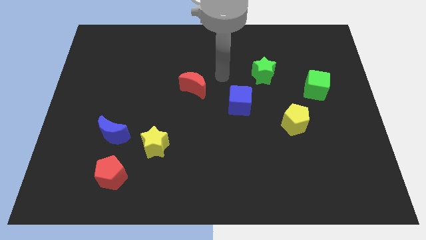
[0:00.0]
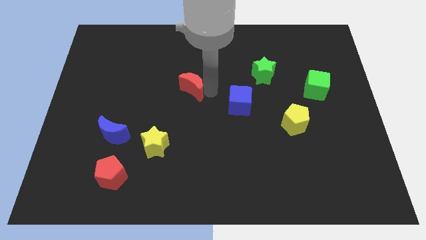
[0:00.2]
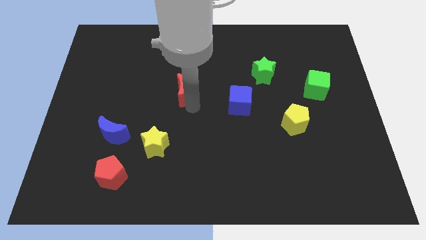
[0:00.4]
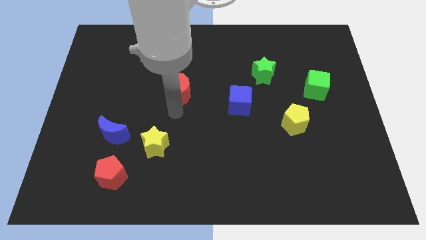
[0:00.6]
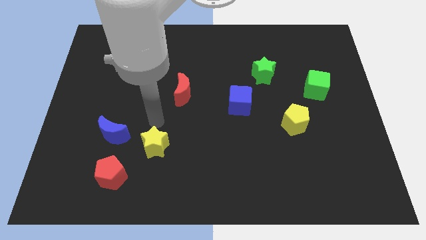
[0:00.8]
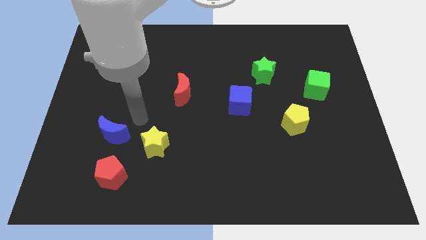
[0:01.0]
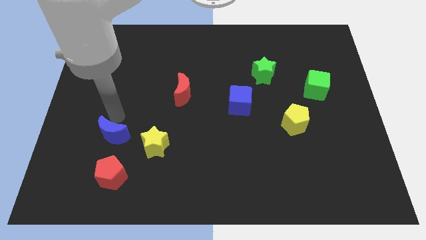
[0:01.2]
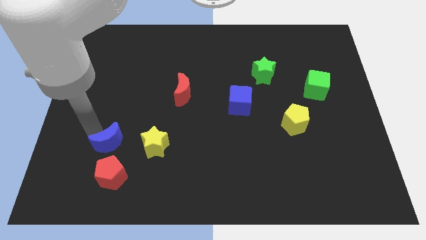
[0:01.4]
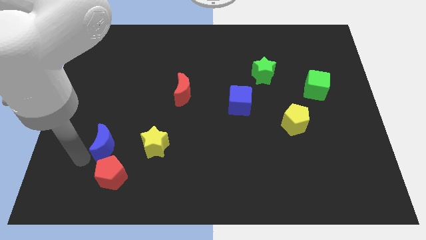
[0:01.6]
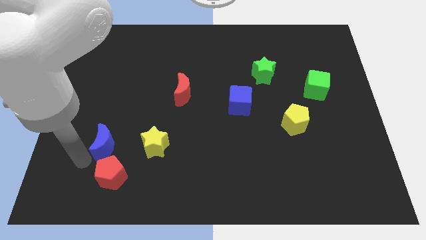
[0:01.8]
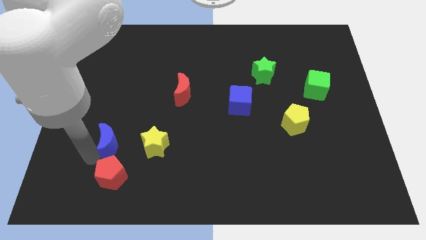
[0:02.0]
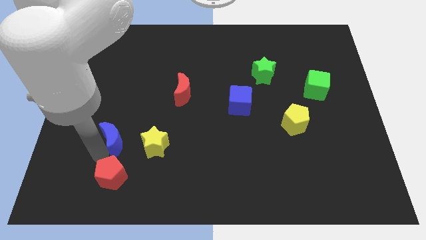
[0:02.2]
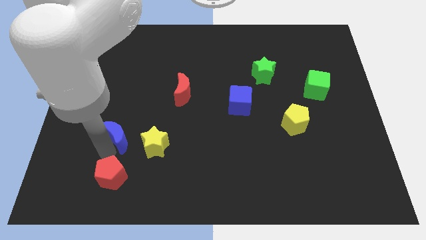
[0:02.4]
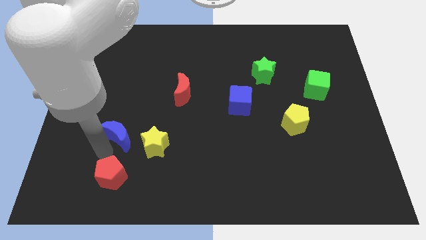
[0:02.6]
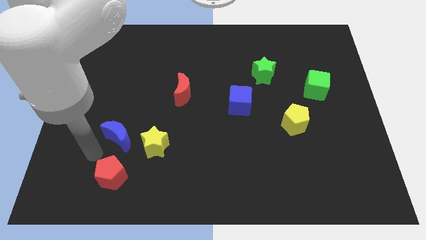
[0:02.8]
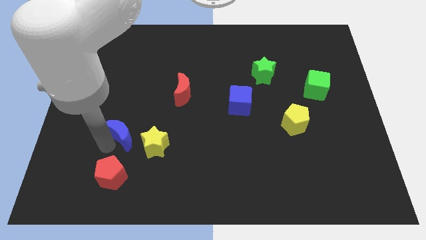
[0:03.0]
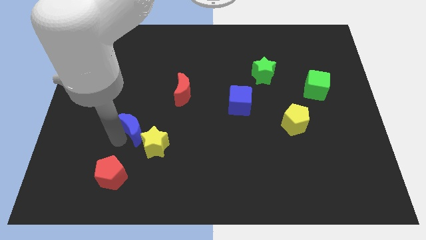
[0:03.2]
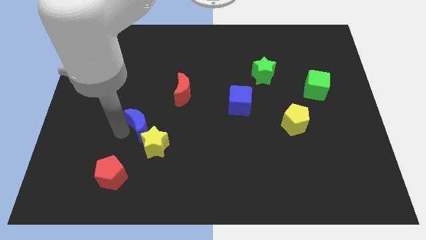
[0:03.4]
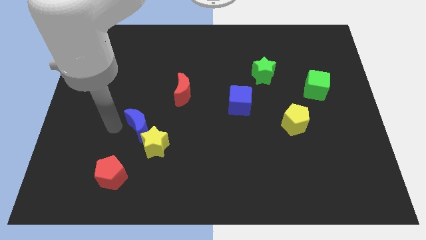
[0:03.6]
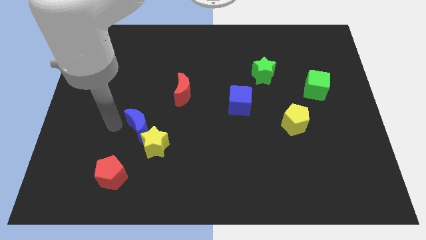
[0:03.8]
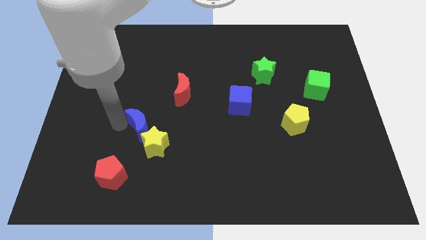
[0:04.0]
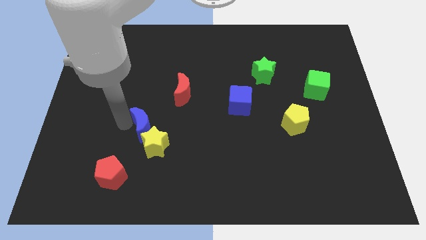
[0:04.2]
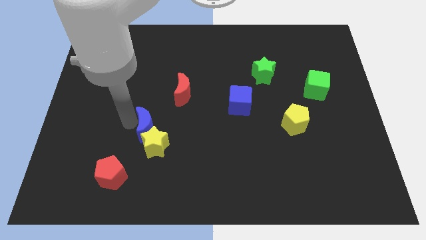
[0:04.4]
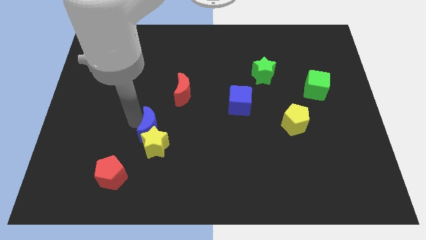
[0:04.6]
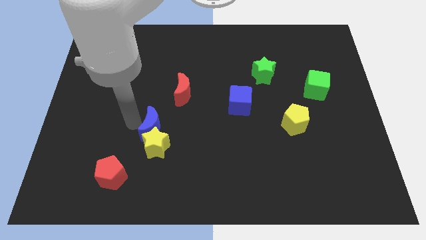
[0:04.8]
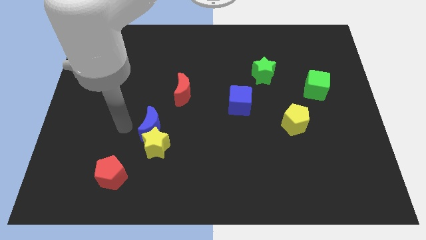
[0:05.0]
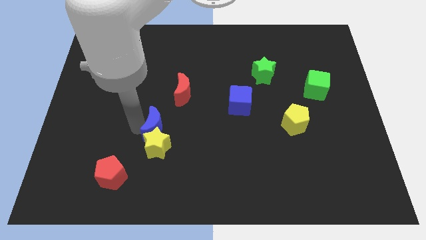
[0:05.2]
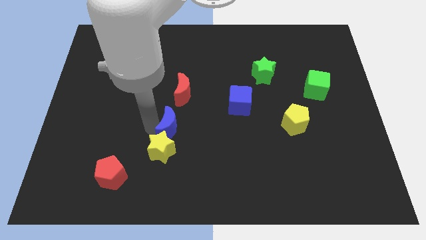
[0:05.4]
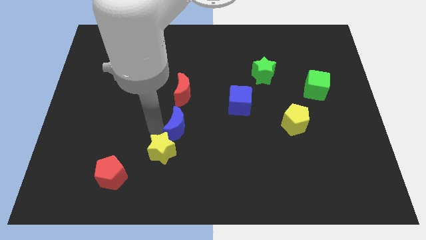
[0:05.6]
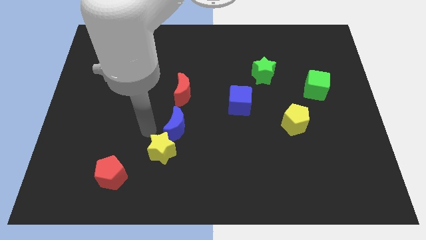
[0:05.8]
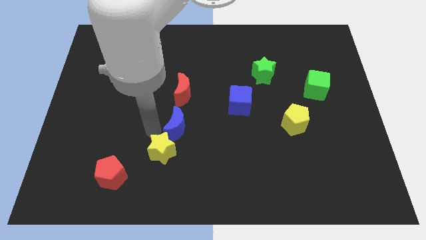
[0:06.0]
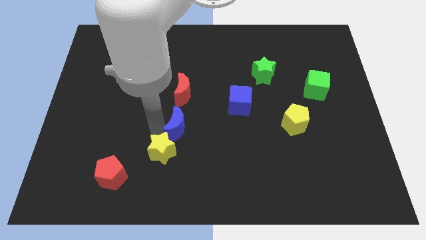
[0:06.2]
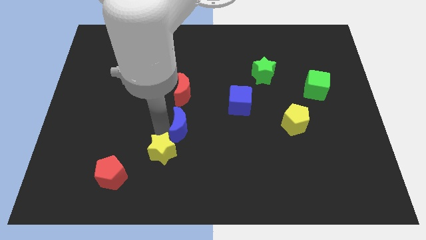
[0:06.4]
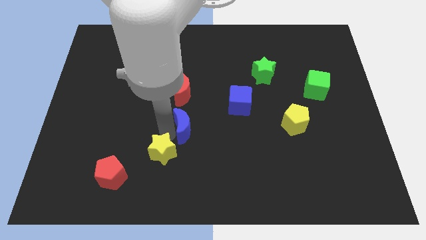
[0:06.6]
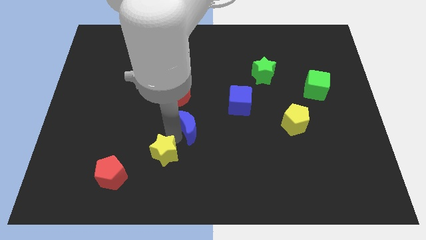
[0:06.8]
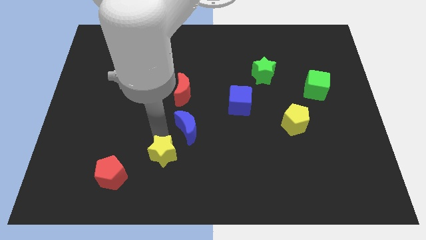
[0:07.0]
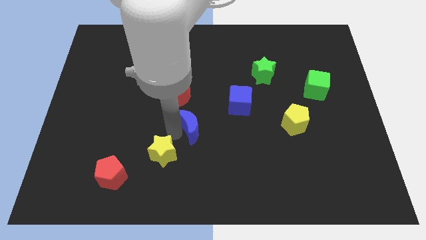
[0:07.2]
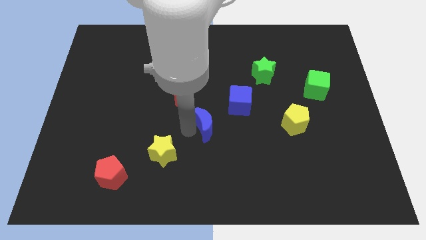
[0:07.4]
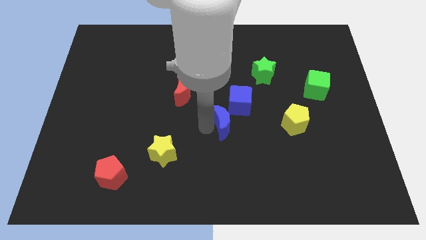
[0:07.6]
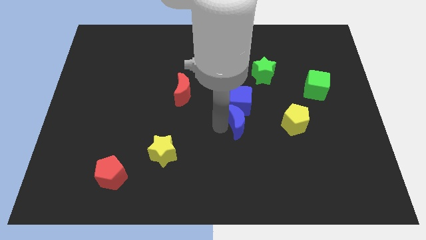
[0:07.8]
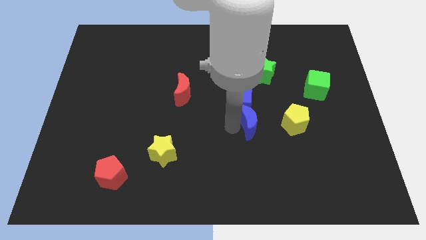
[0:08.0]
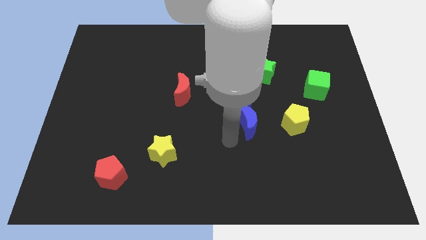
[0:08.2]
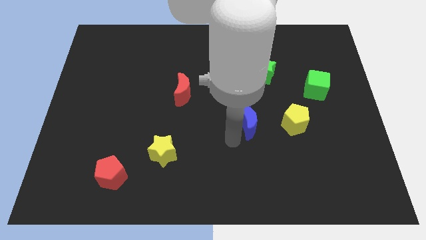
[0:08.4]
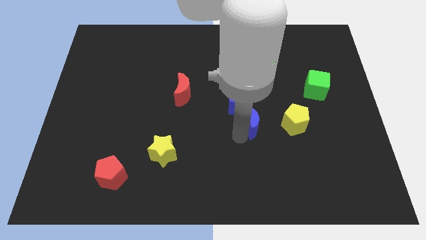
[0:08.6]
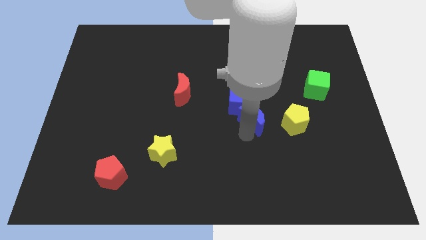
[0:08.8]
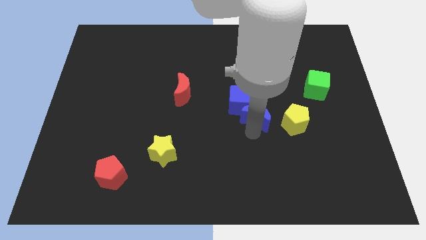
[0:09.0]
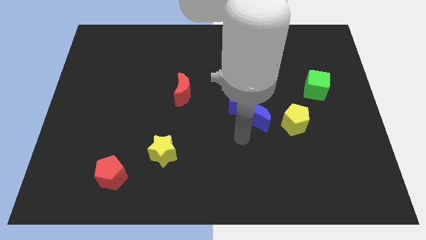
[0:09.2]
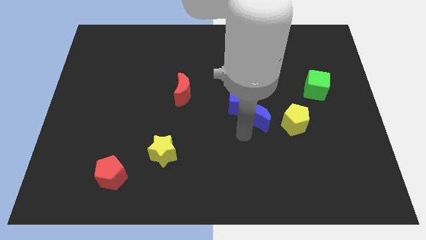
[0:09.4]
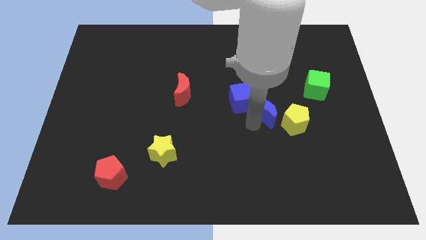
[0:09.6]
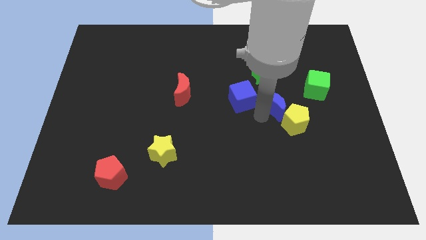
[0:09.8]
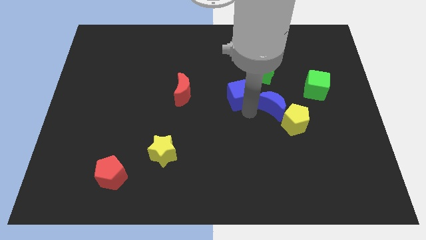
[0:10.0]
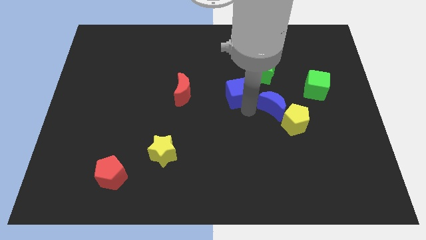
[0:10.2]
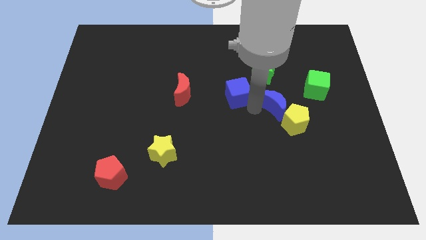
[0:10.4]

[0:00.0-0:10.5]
push the blue moon diagonally down and to the left of the green cube

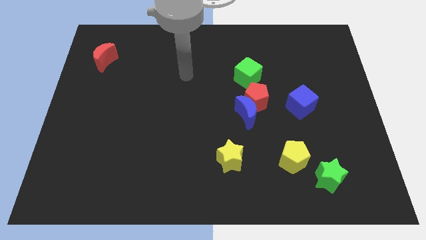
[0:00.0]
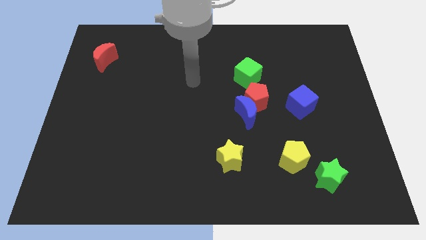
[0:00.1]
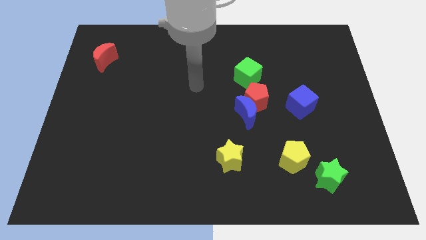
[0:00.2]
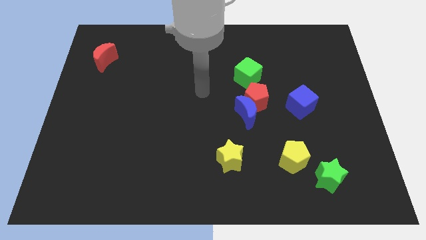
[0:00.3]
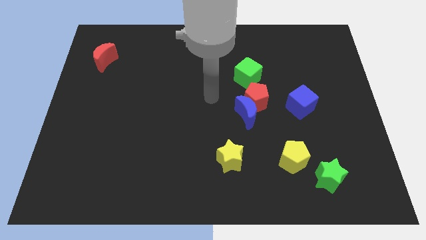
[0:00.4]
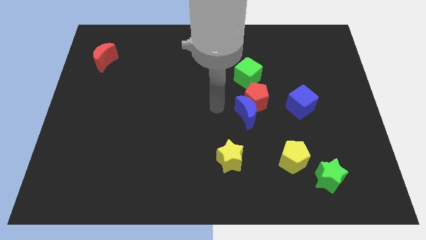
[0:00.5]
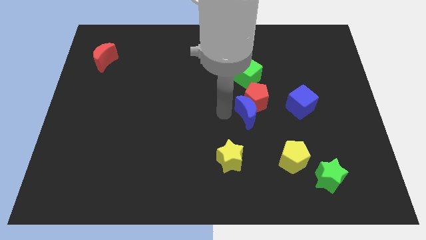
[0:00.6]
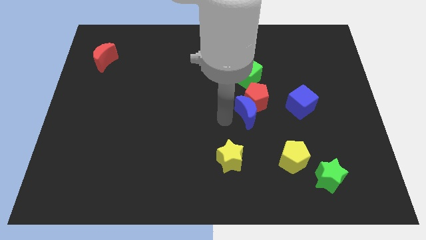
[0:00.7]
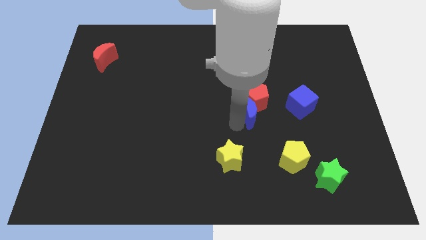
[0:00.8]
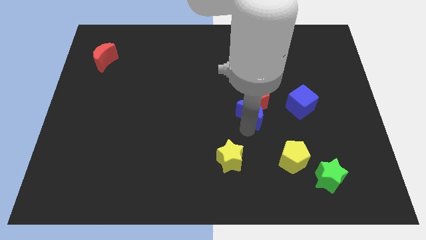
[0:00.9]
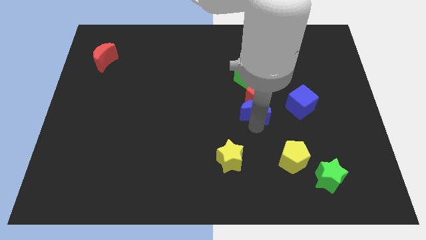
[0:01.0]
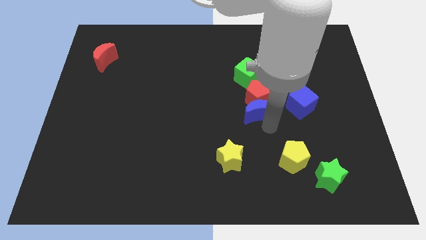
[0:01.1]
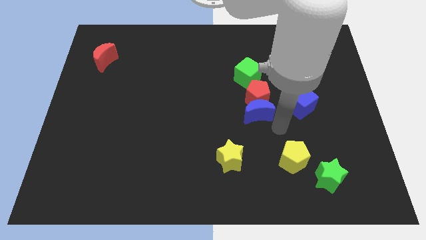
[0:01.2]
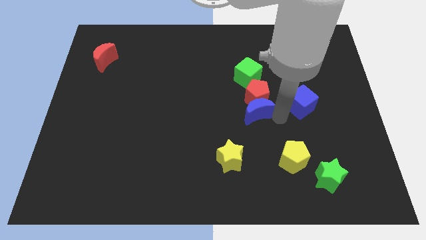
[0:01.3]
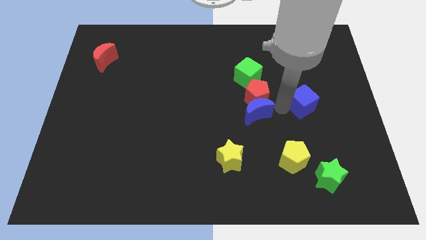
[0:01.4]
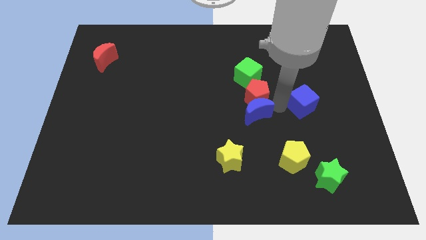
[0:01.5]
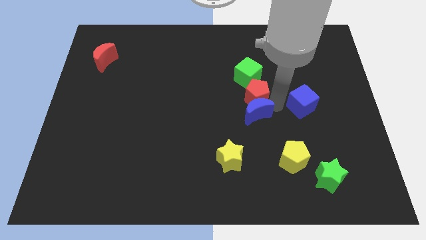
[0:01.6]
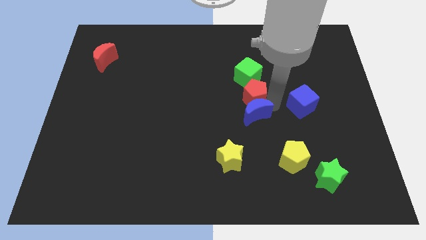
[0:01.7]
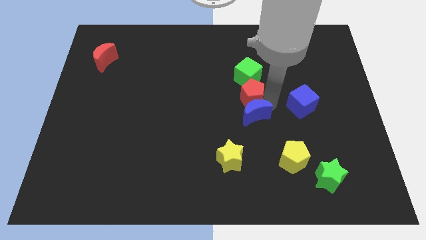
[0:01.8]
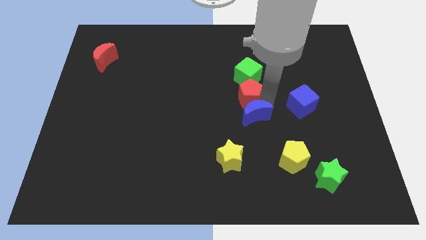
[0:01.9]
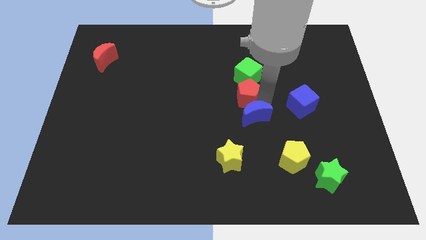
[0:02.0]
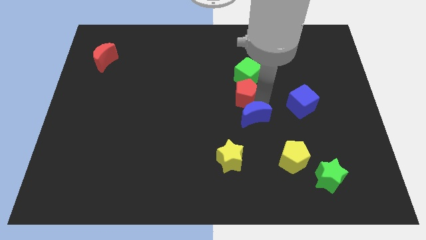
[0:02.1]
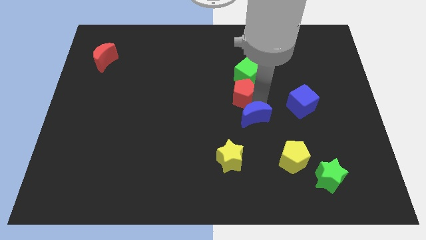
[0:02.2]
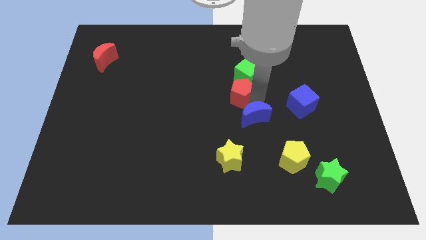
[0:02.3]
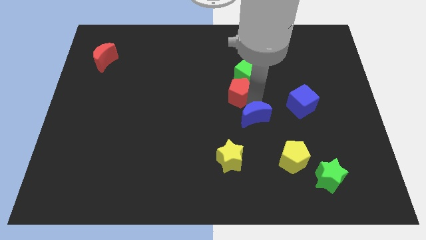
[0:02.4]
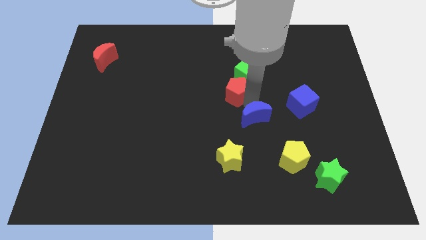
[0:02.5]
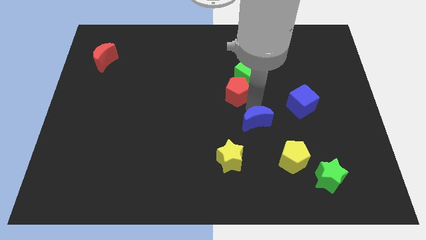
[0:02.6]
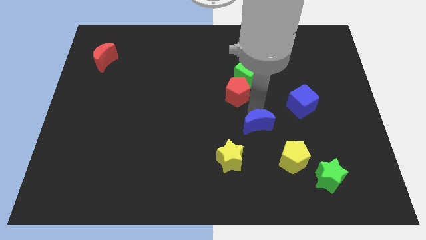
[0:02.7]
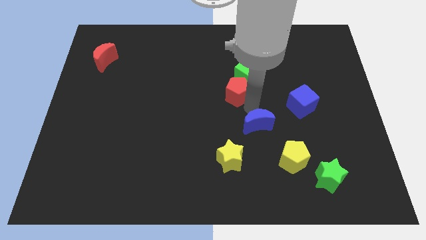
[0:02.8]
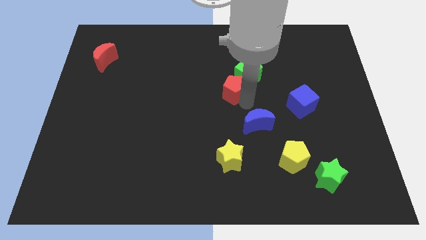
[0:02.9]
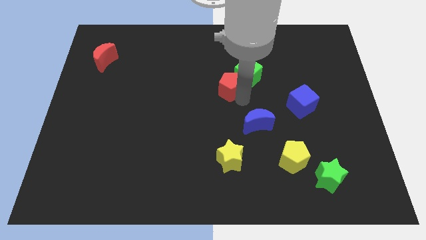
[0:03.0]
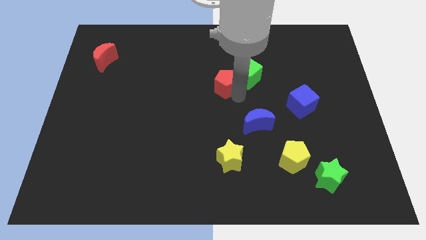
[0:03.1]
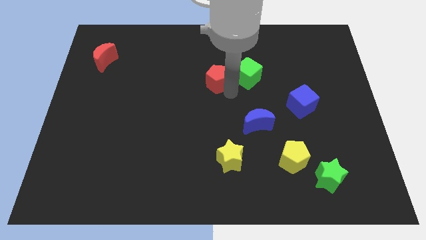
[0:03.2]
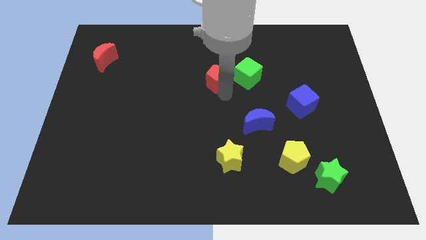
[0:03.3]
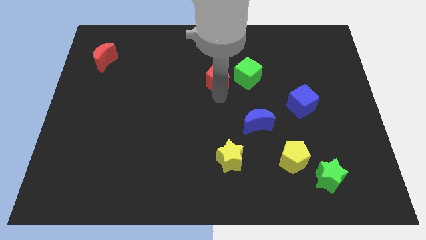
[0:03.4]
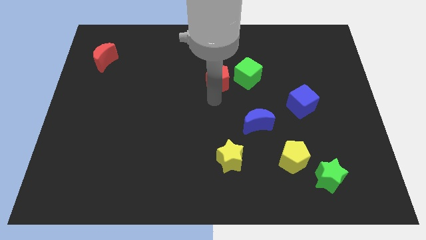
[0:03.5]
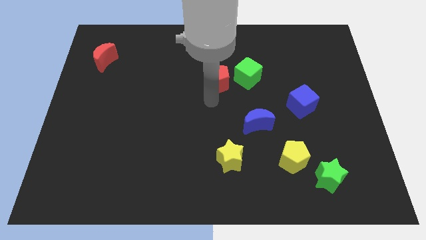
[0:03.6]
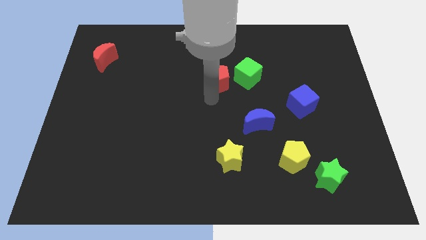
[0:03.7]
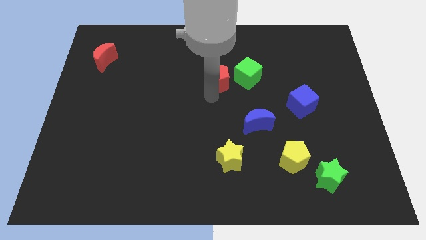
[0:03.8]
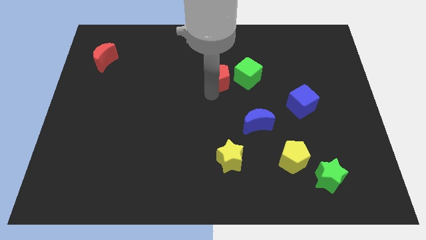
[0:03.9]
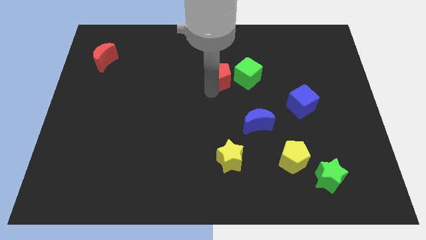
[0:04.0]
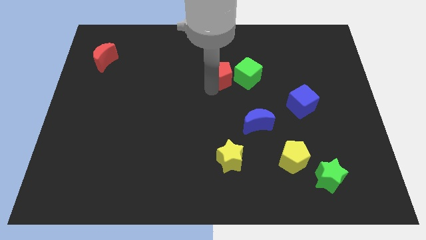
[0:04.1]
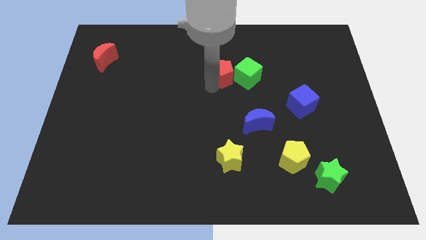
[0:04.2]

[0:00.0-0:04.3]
put the red pentagon diagonally up and to the left of the green cube
